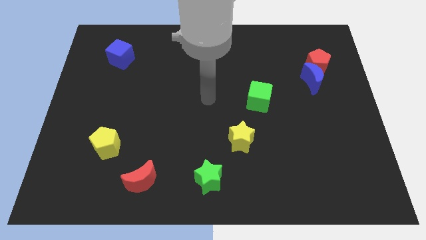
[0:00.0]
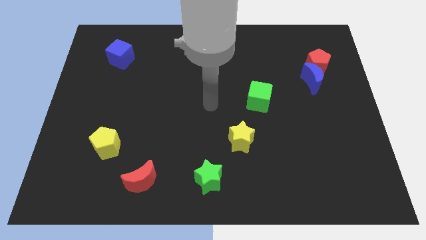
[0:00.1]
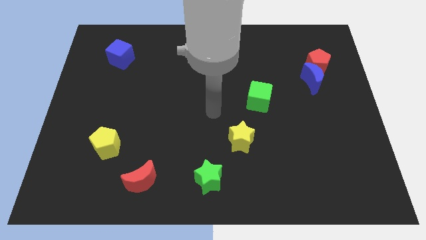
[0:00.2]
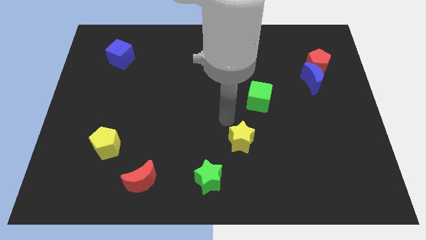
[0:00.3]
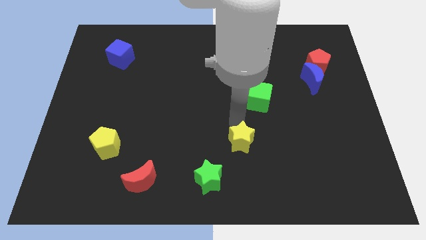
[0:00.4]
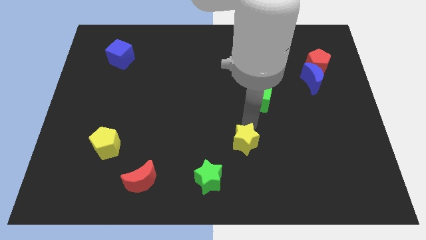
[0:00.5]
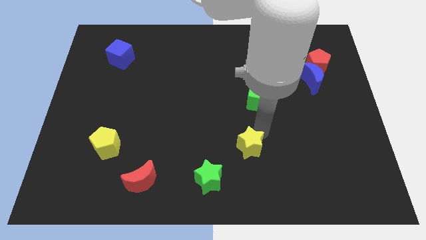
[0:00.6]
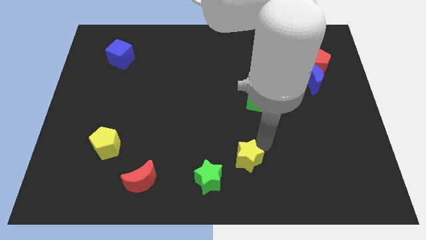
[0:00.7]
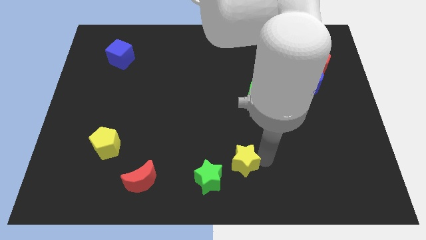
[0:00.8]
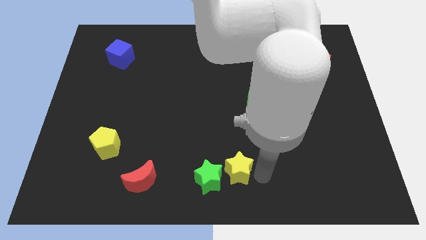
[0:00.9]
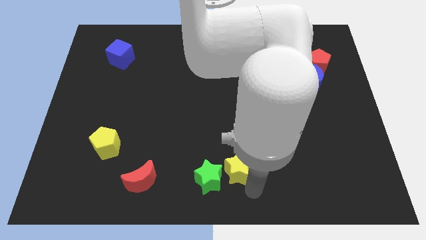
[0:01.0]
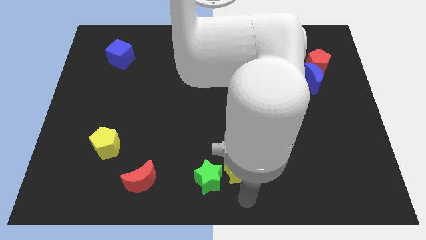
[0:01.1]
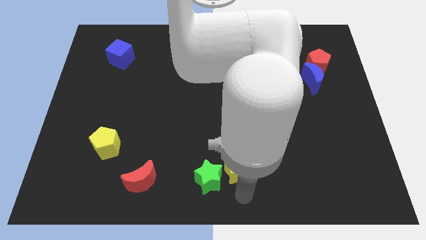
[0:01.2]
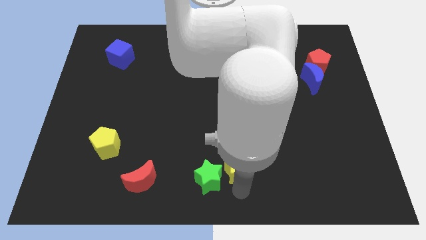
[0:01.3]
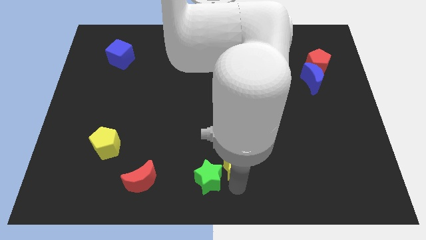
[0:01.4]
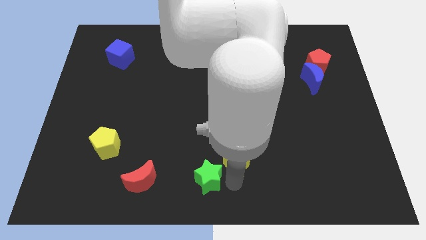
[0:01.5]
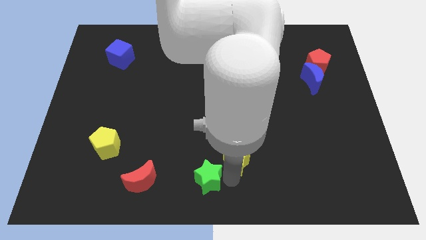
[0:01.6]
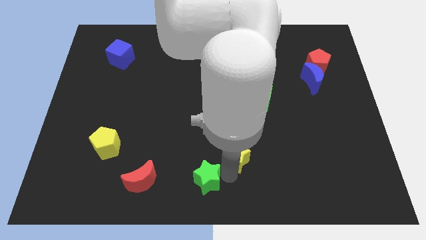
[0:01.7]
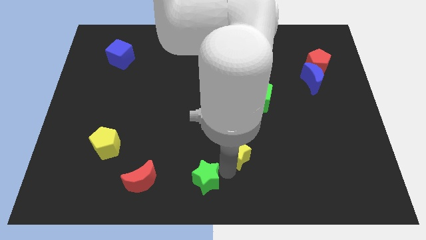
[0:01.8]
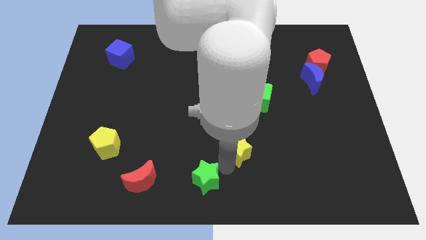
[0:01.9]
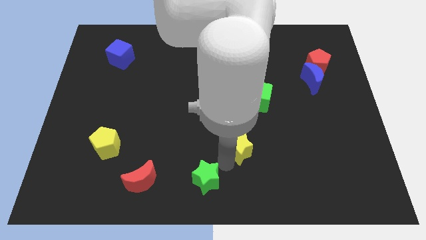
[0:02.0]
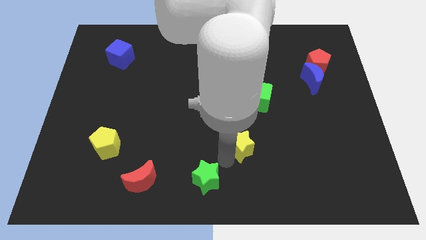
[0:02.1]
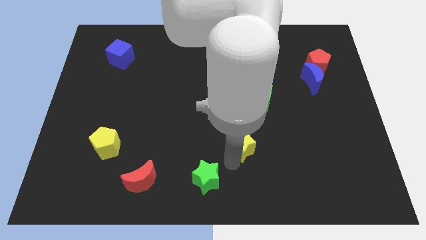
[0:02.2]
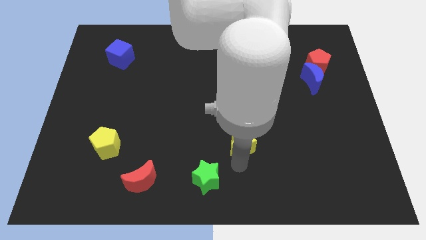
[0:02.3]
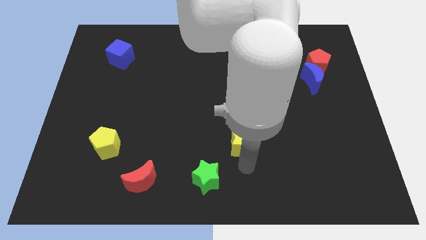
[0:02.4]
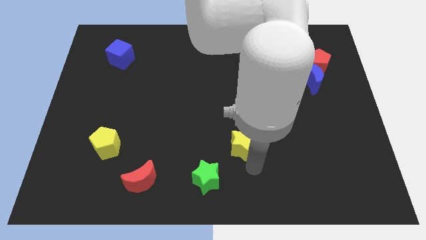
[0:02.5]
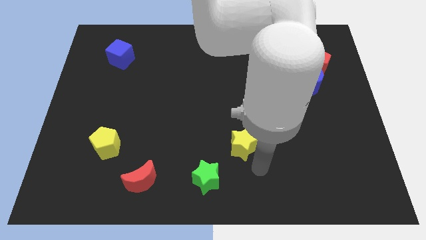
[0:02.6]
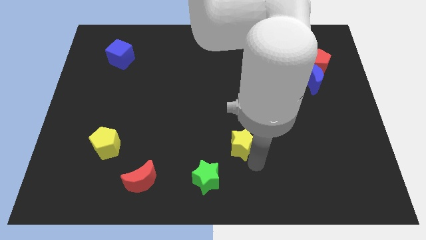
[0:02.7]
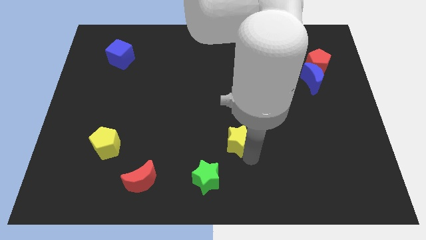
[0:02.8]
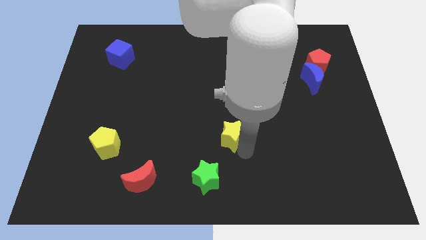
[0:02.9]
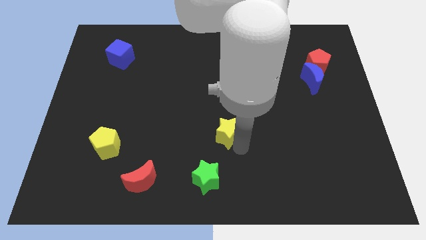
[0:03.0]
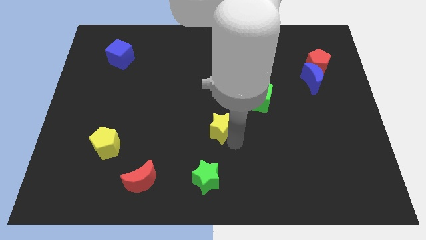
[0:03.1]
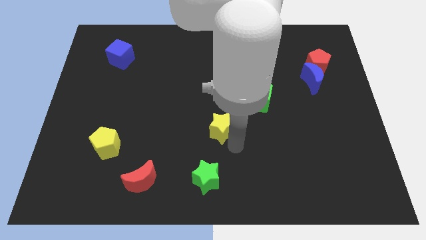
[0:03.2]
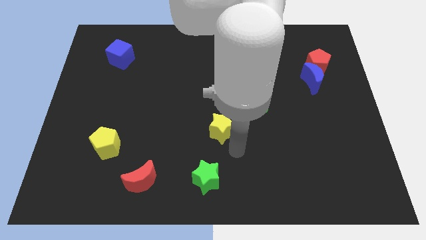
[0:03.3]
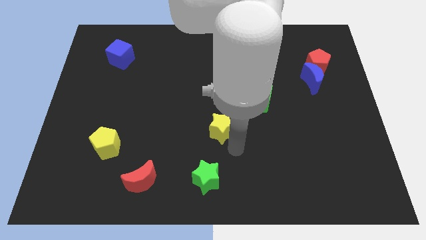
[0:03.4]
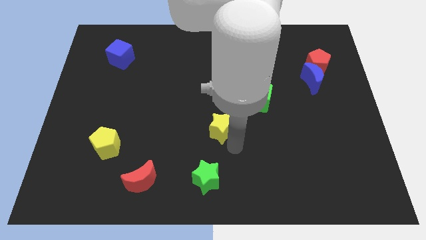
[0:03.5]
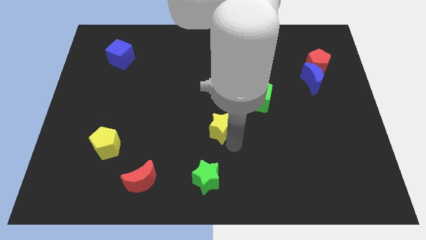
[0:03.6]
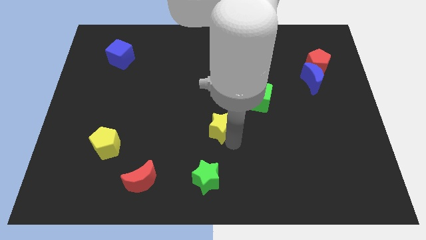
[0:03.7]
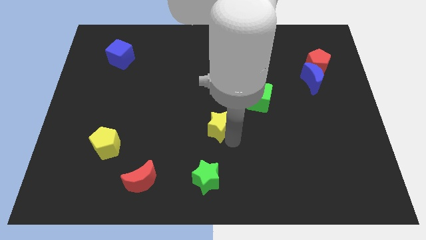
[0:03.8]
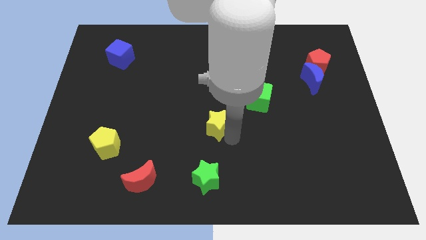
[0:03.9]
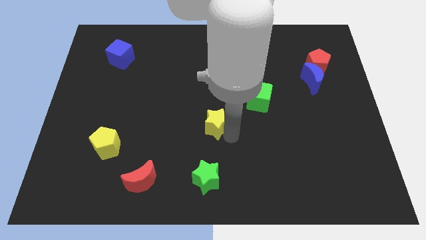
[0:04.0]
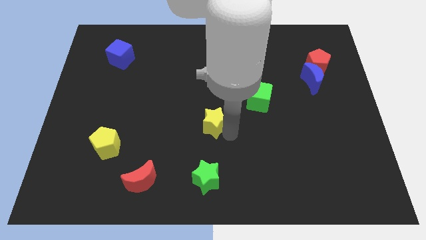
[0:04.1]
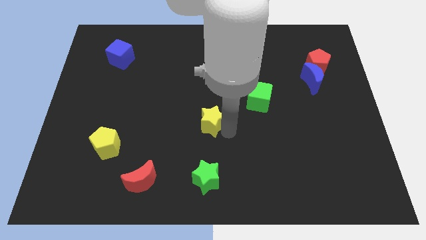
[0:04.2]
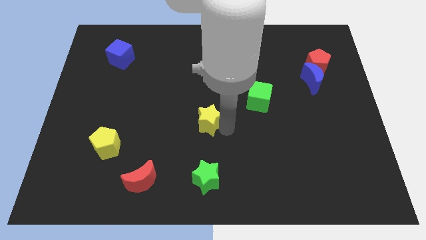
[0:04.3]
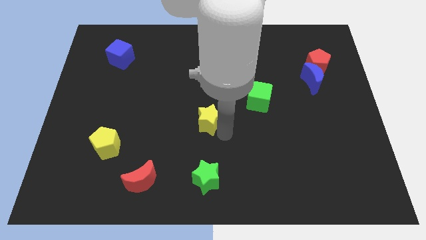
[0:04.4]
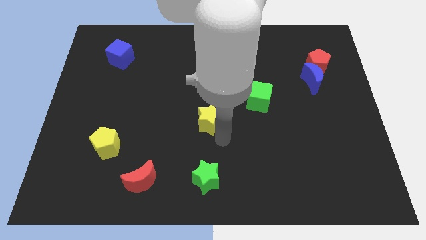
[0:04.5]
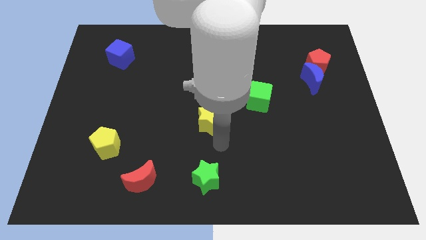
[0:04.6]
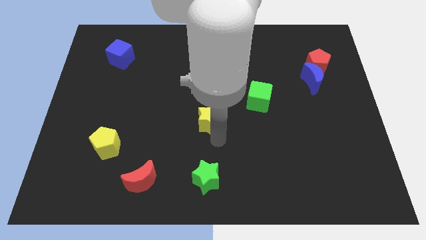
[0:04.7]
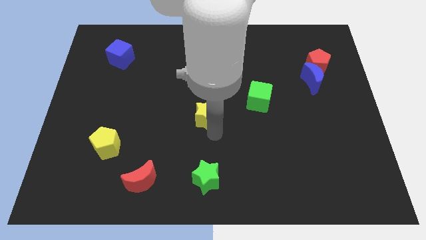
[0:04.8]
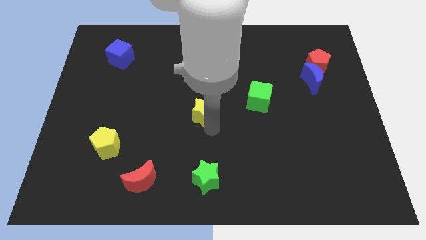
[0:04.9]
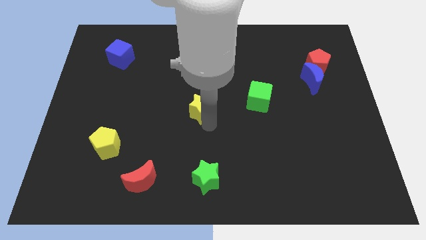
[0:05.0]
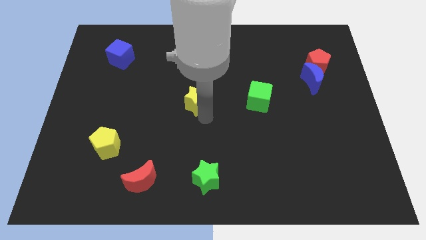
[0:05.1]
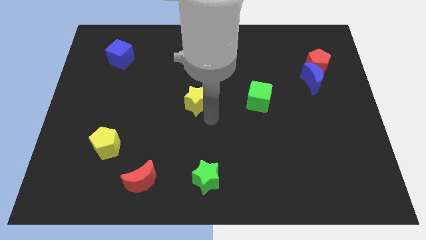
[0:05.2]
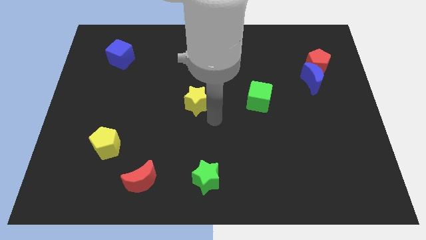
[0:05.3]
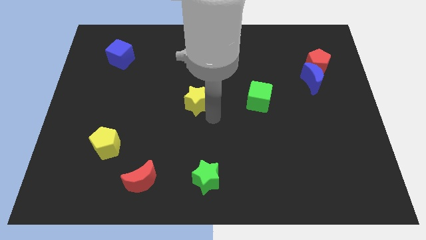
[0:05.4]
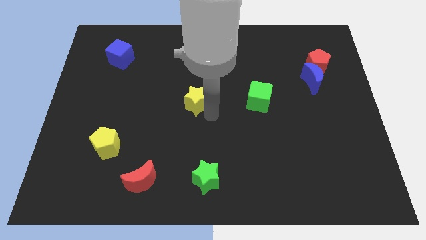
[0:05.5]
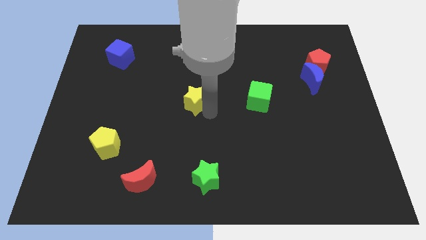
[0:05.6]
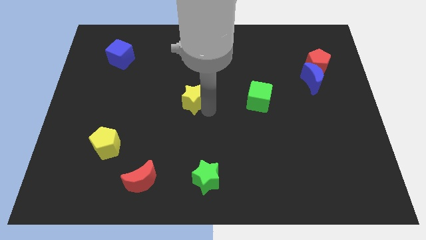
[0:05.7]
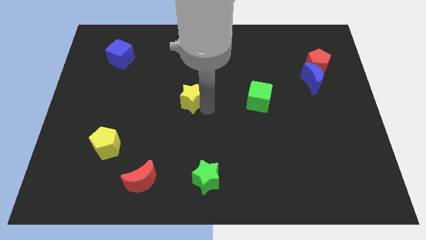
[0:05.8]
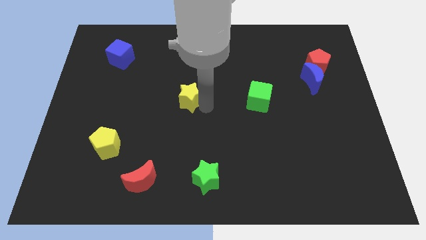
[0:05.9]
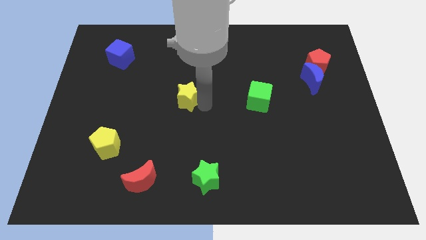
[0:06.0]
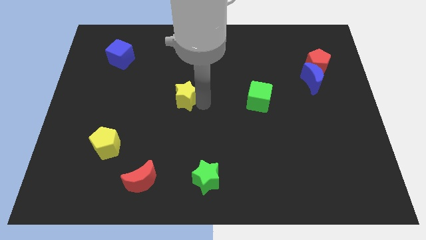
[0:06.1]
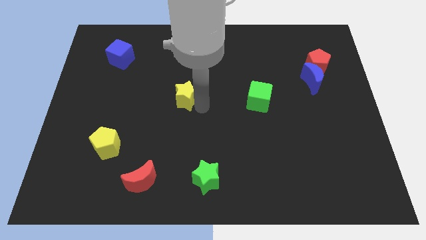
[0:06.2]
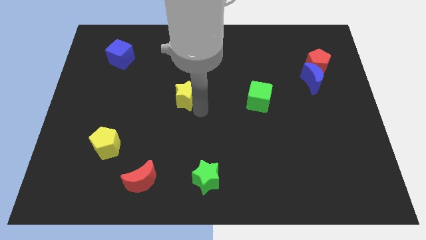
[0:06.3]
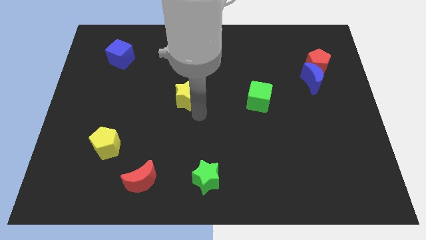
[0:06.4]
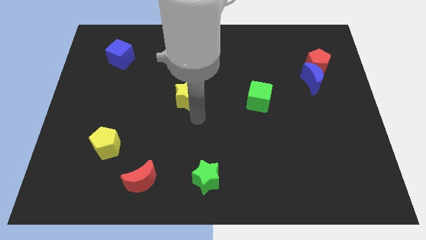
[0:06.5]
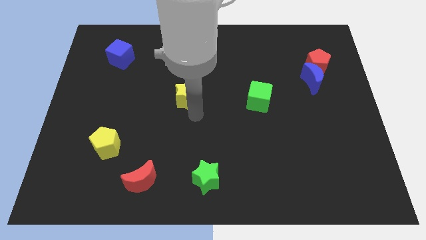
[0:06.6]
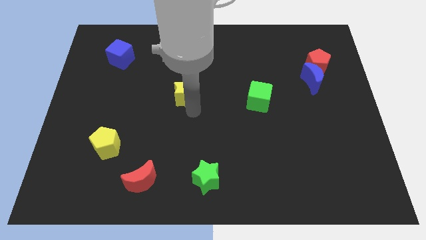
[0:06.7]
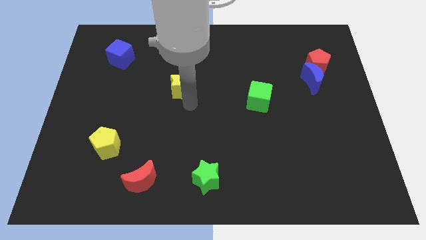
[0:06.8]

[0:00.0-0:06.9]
move the yellow star upwards and to the left

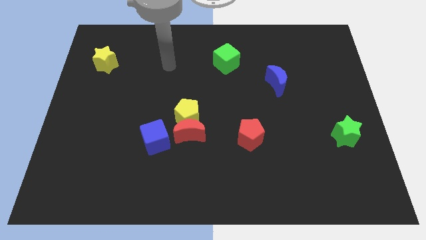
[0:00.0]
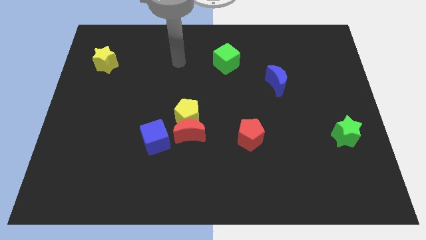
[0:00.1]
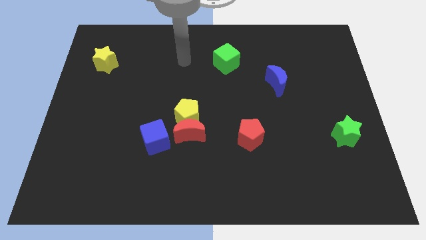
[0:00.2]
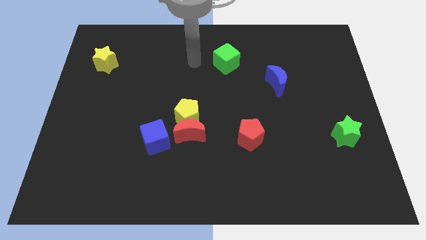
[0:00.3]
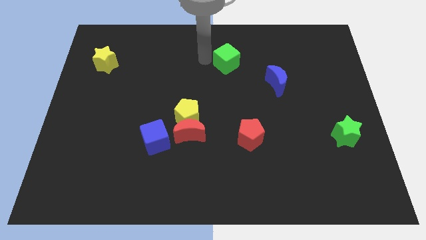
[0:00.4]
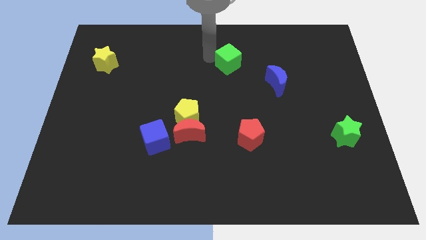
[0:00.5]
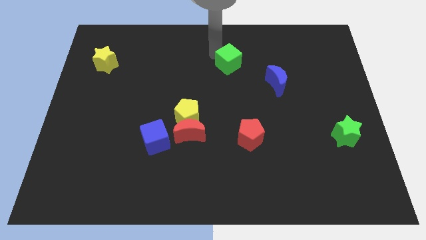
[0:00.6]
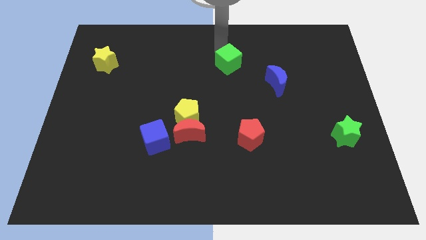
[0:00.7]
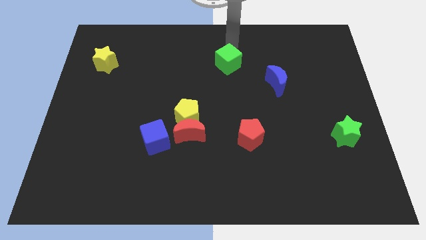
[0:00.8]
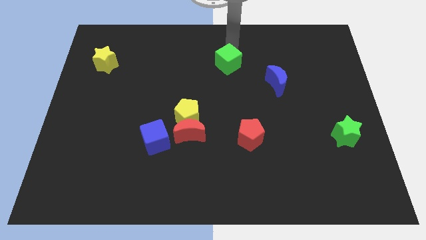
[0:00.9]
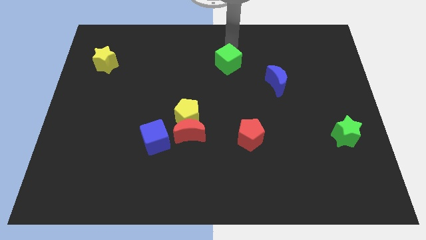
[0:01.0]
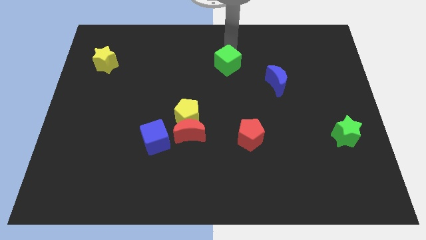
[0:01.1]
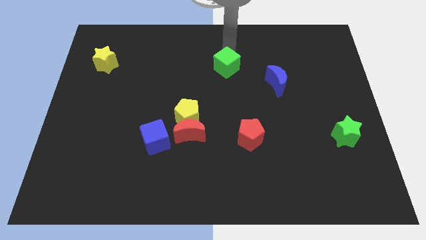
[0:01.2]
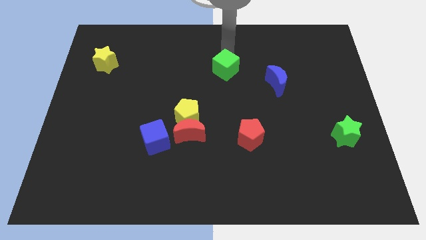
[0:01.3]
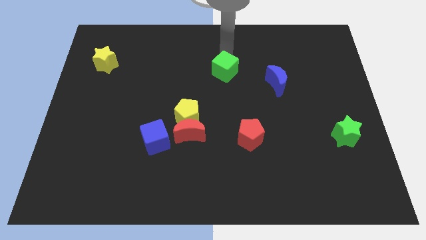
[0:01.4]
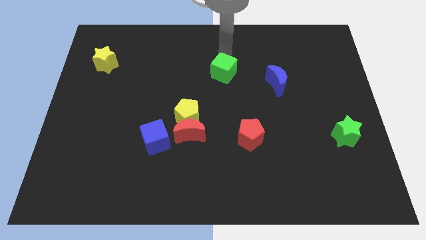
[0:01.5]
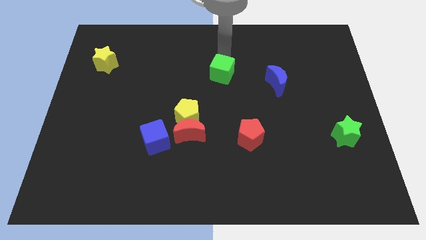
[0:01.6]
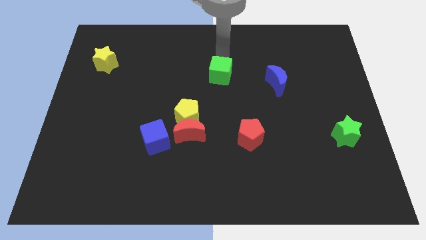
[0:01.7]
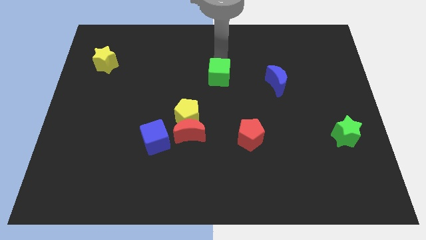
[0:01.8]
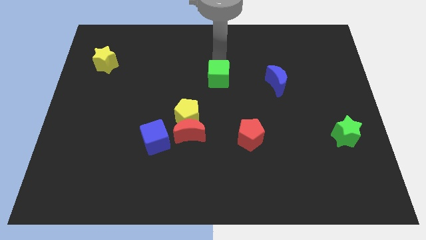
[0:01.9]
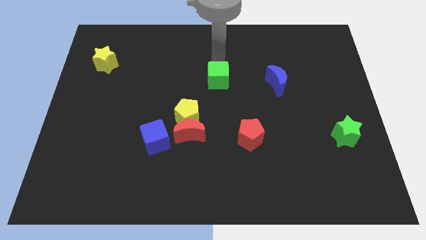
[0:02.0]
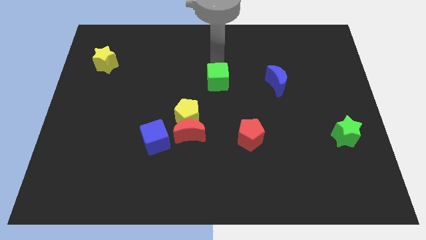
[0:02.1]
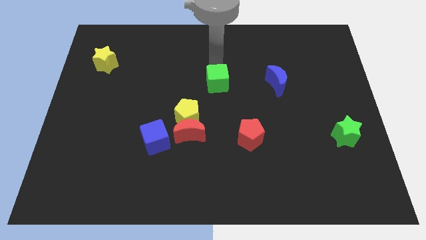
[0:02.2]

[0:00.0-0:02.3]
push the green cube a little bit downwards
